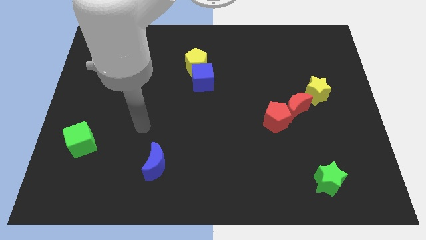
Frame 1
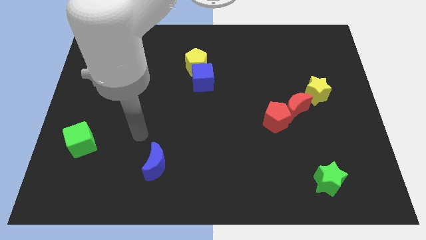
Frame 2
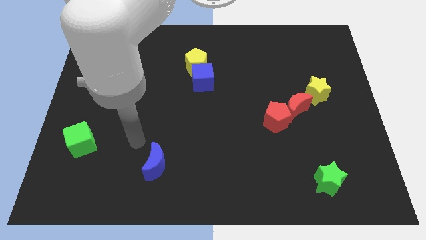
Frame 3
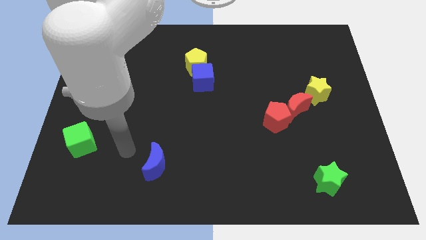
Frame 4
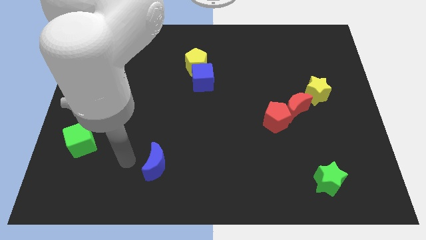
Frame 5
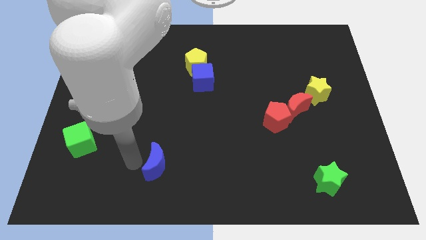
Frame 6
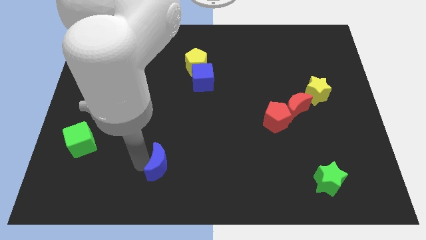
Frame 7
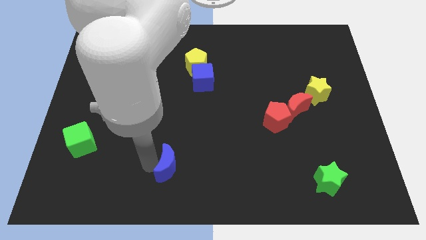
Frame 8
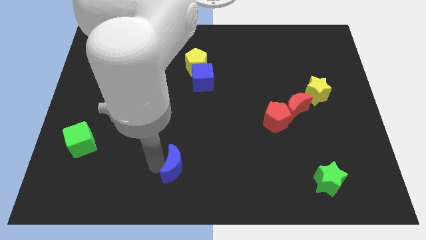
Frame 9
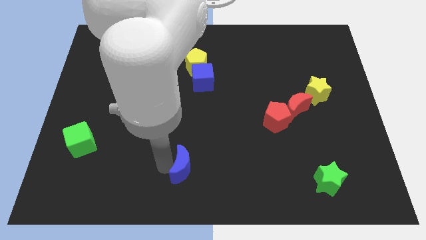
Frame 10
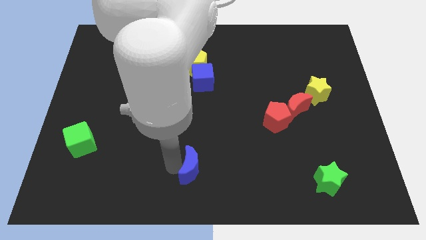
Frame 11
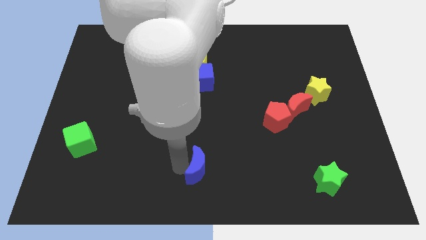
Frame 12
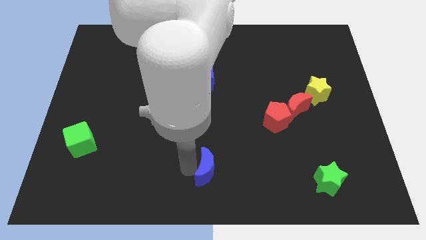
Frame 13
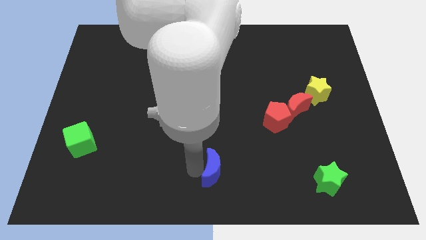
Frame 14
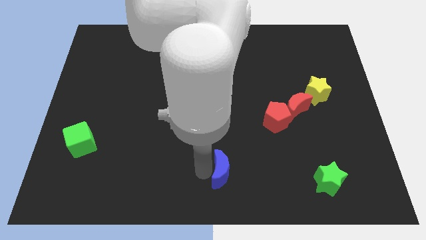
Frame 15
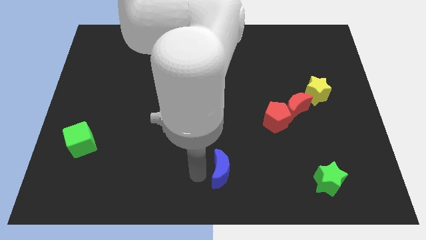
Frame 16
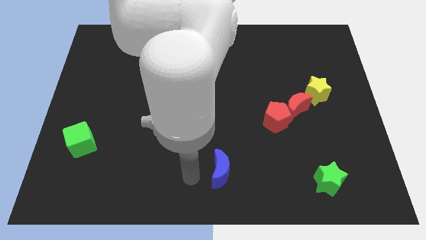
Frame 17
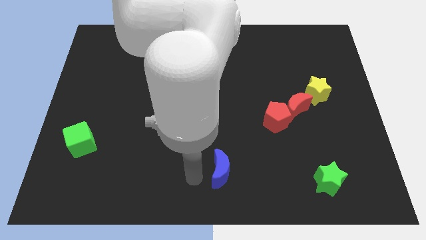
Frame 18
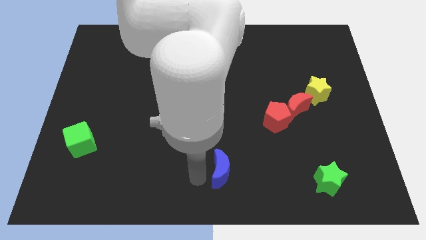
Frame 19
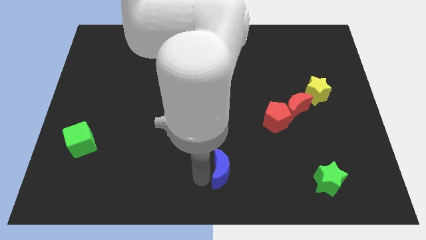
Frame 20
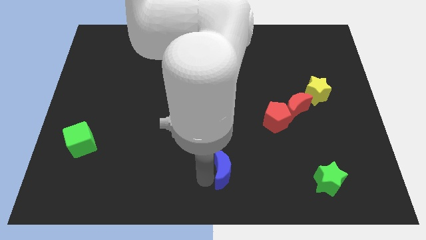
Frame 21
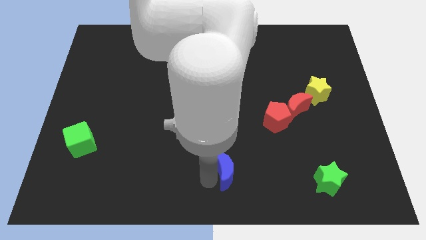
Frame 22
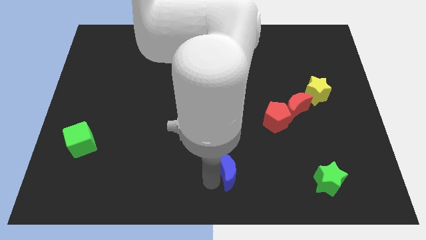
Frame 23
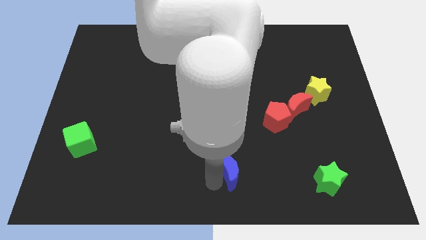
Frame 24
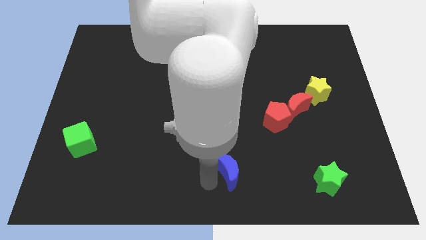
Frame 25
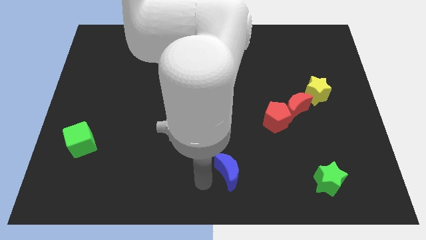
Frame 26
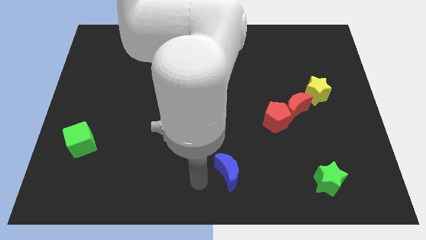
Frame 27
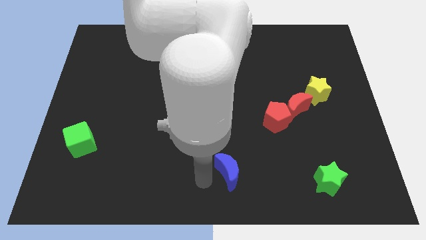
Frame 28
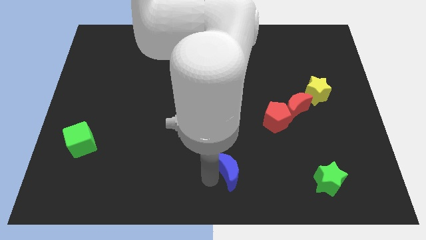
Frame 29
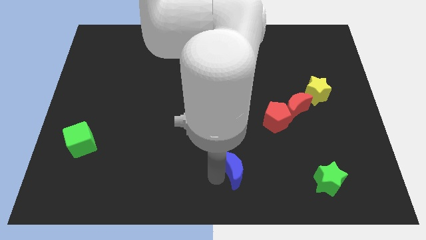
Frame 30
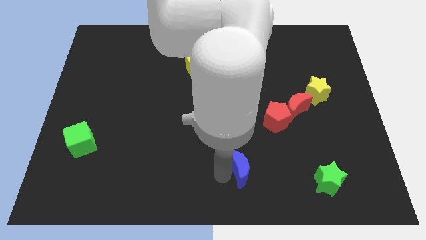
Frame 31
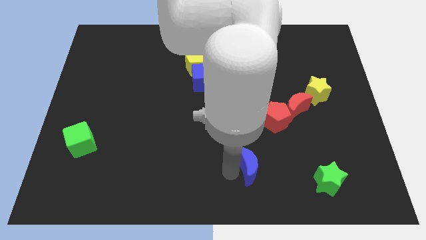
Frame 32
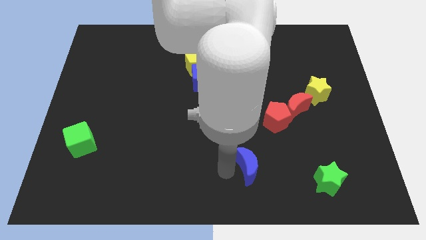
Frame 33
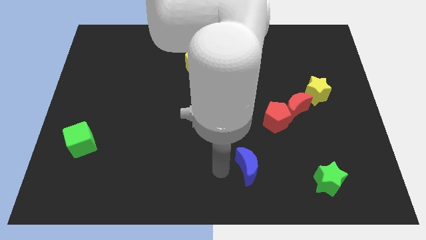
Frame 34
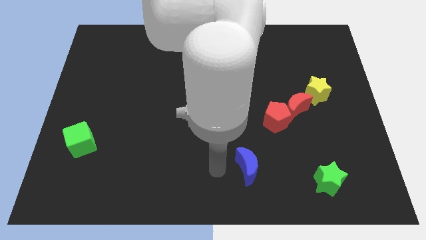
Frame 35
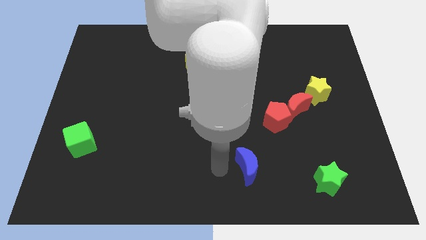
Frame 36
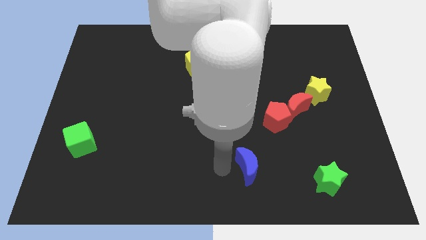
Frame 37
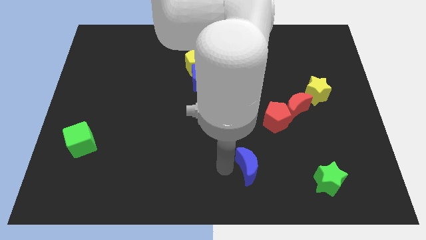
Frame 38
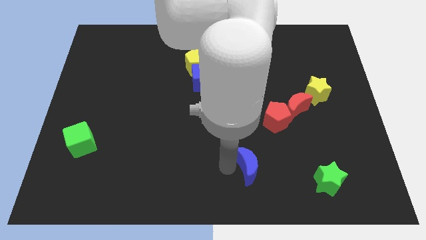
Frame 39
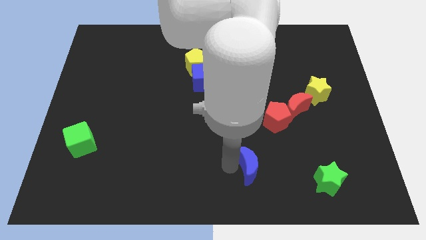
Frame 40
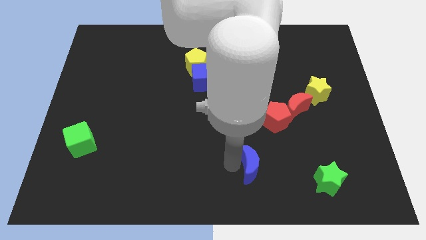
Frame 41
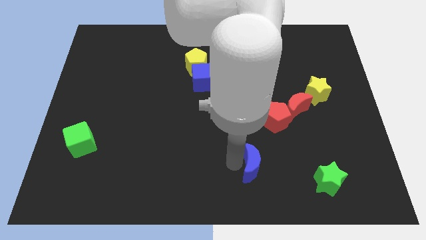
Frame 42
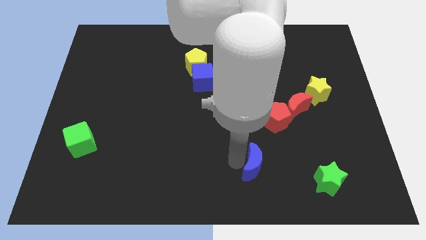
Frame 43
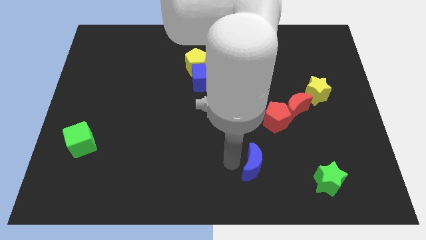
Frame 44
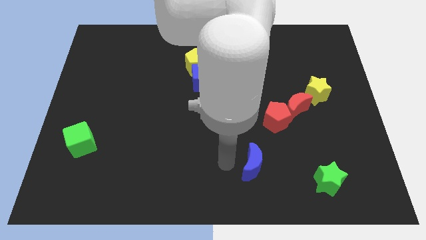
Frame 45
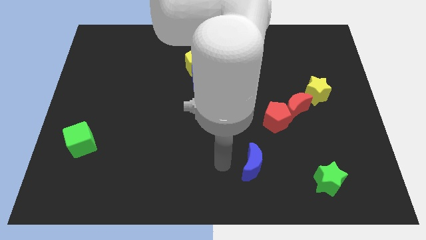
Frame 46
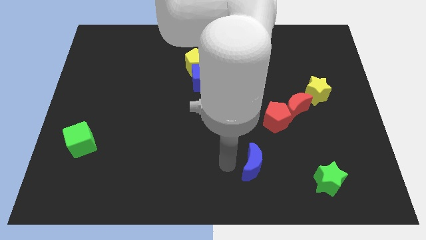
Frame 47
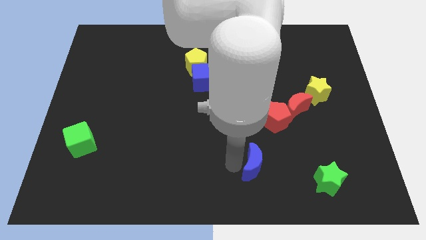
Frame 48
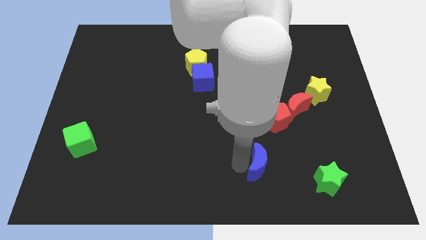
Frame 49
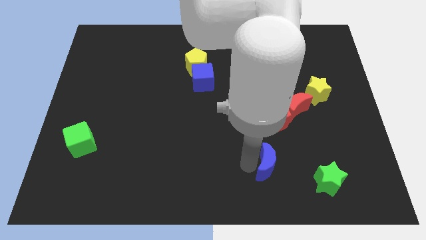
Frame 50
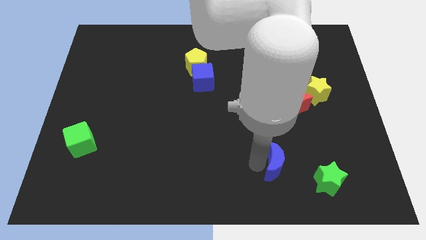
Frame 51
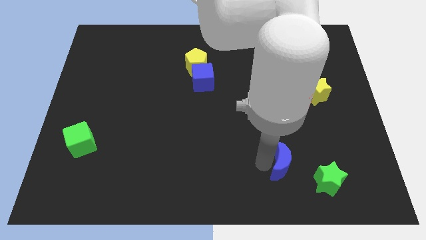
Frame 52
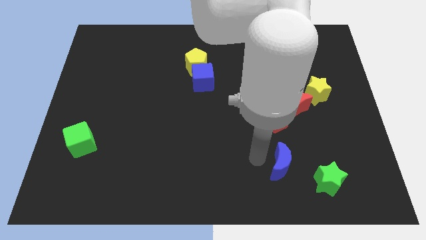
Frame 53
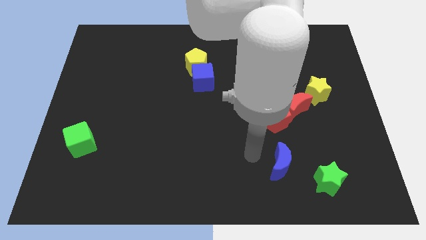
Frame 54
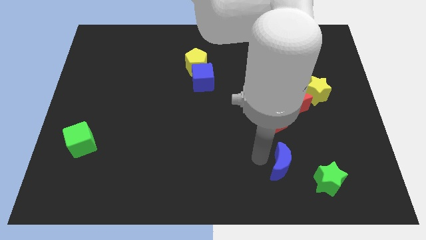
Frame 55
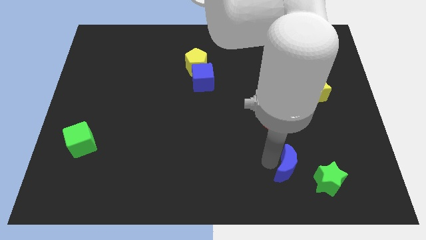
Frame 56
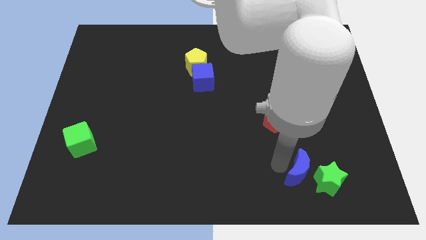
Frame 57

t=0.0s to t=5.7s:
slide the blue moon next to the green star

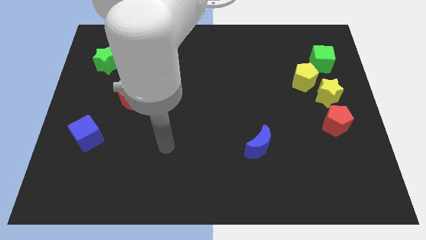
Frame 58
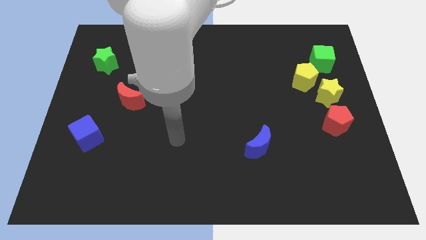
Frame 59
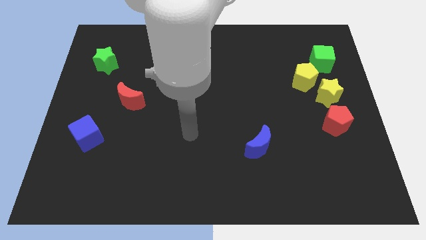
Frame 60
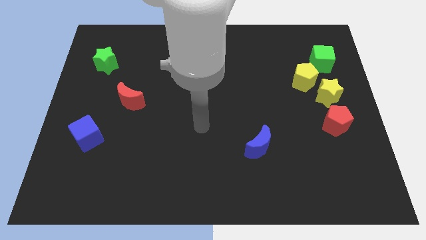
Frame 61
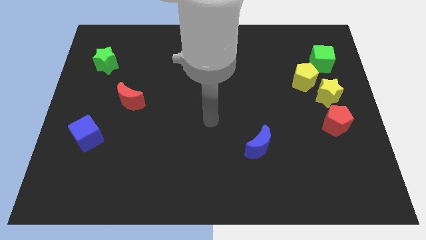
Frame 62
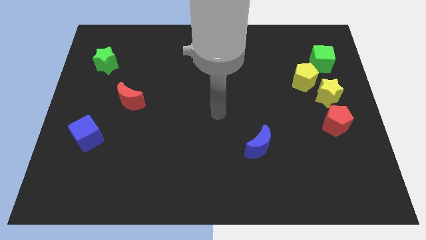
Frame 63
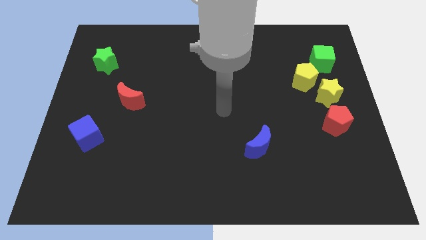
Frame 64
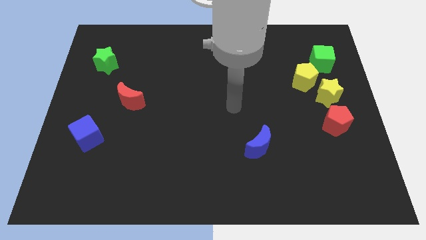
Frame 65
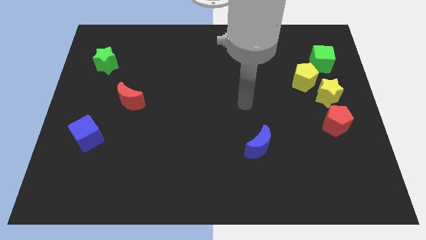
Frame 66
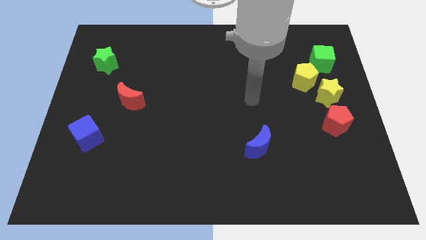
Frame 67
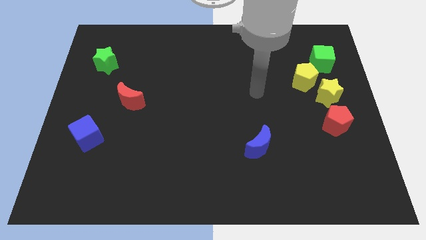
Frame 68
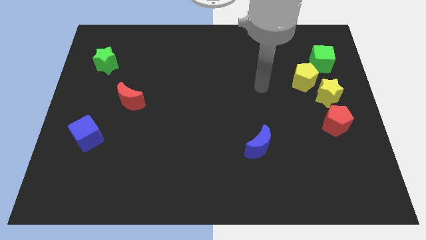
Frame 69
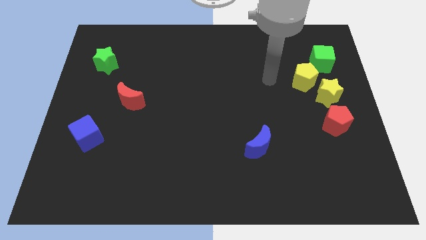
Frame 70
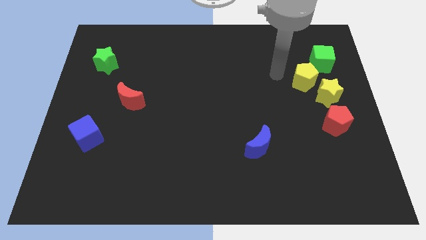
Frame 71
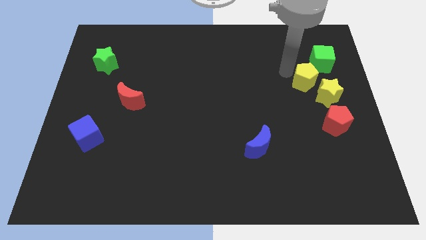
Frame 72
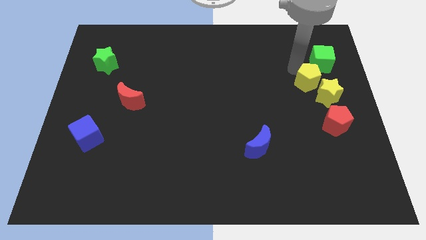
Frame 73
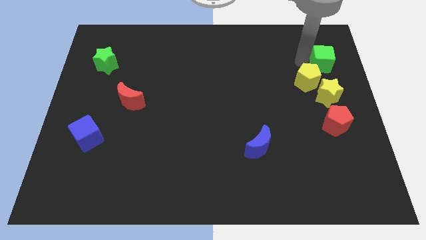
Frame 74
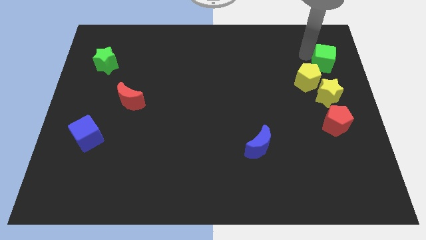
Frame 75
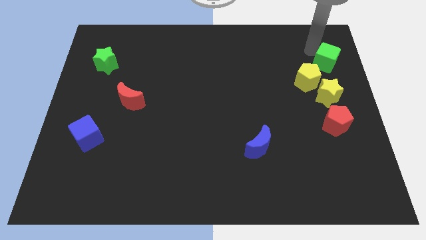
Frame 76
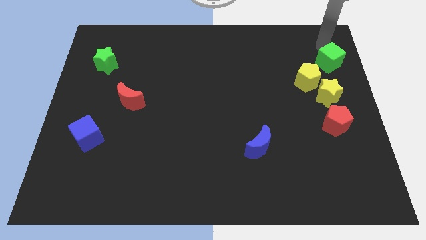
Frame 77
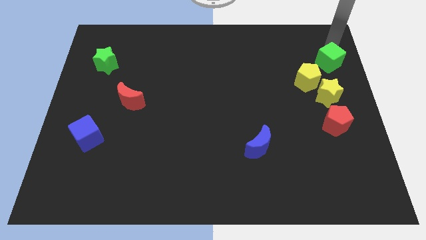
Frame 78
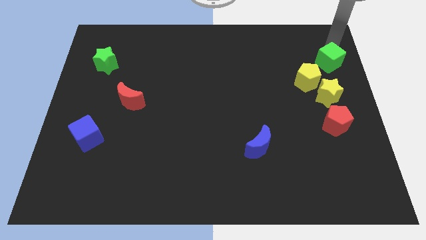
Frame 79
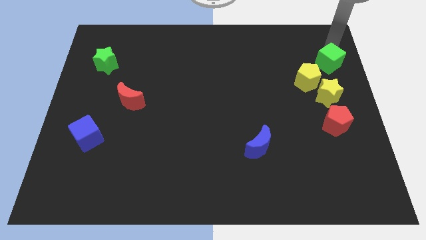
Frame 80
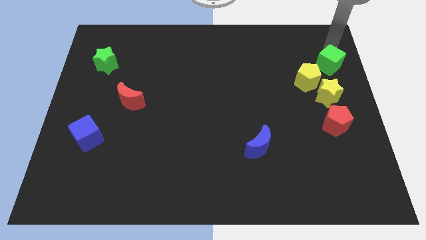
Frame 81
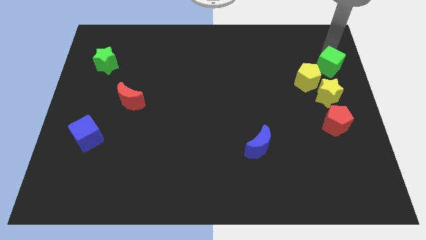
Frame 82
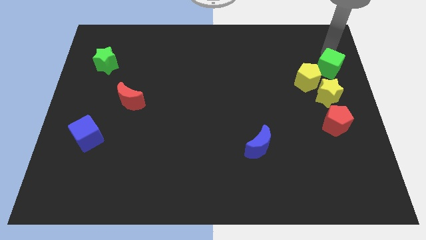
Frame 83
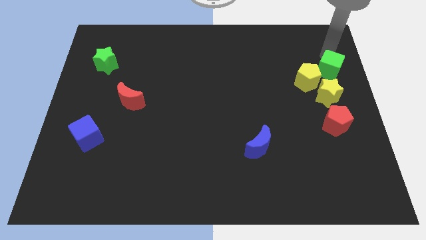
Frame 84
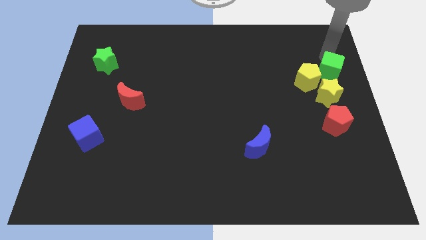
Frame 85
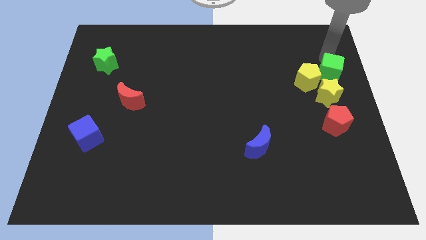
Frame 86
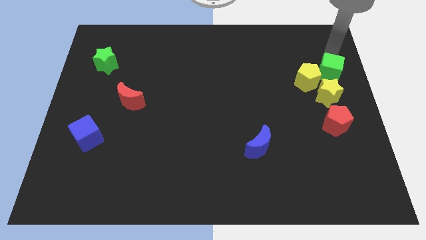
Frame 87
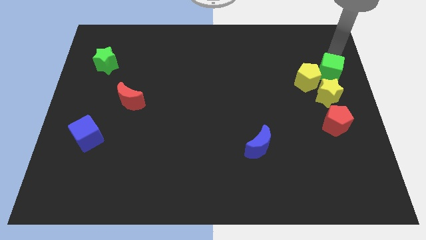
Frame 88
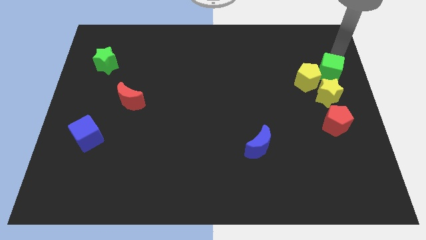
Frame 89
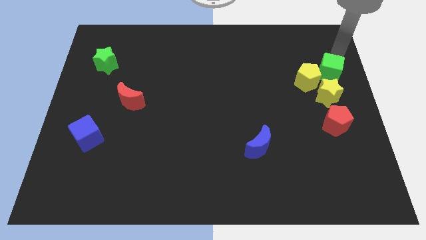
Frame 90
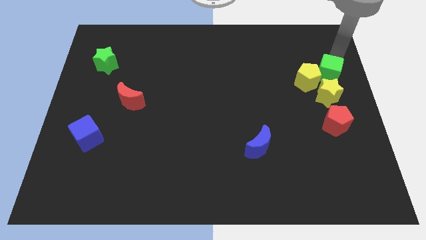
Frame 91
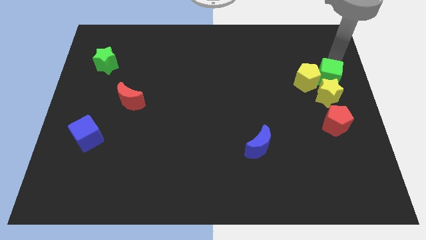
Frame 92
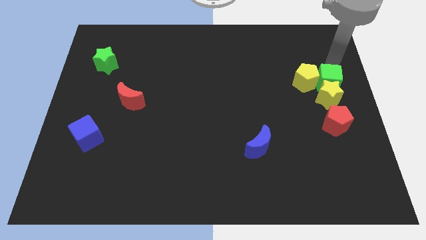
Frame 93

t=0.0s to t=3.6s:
move the green cube to the yellow star
